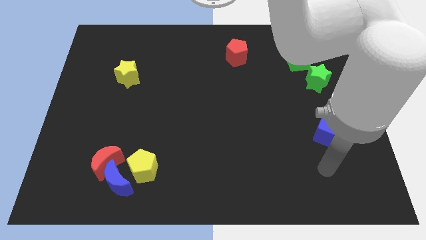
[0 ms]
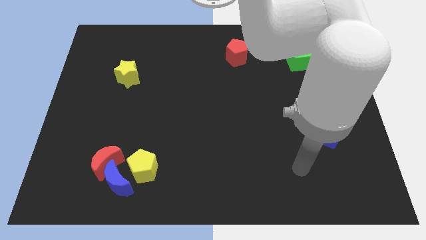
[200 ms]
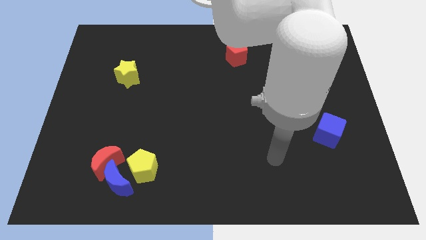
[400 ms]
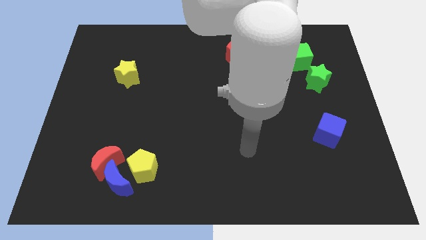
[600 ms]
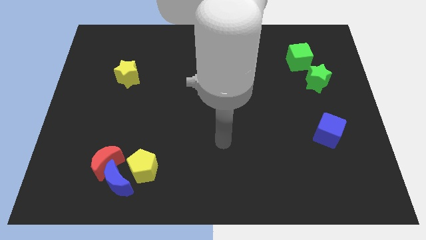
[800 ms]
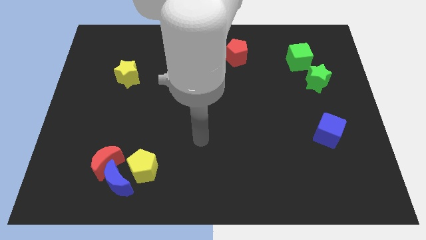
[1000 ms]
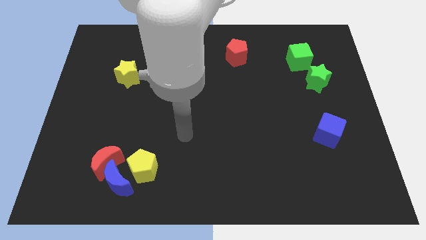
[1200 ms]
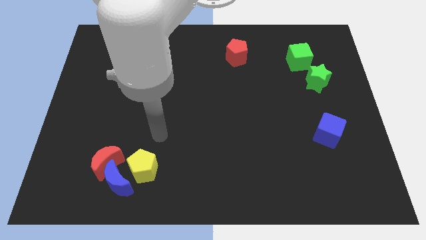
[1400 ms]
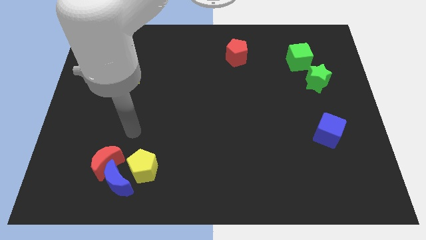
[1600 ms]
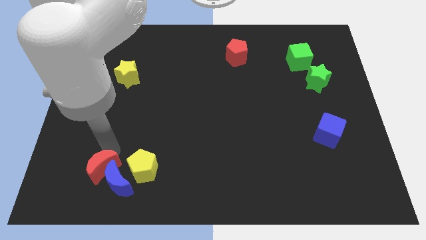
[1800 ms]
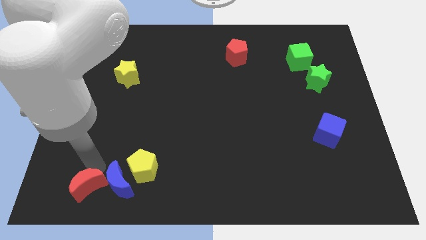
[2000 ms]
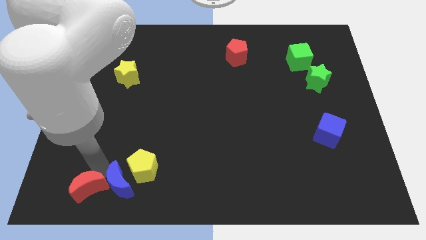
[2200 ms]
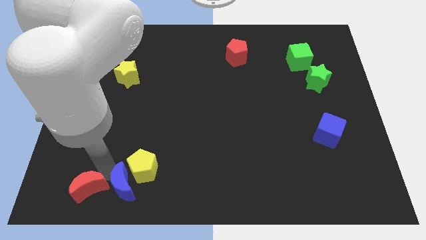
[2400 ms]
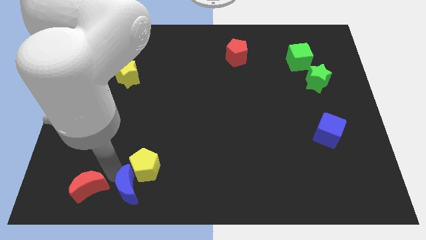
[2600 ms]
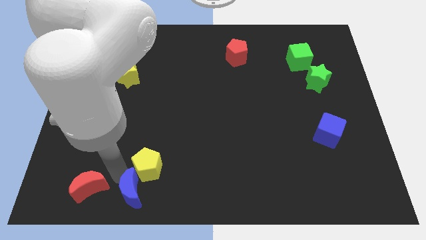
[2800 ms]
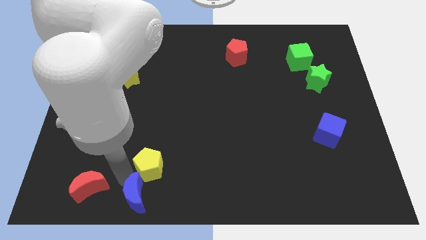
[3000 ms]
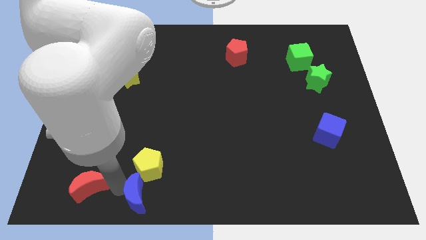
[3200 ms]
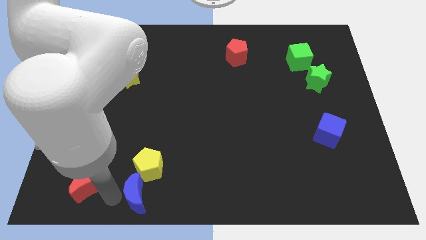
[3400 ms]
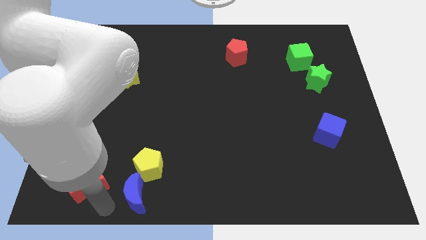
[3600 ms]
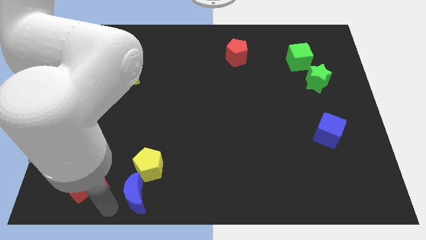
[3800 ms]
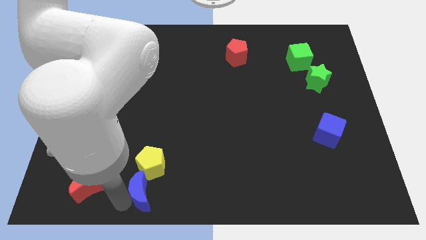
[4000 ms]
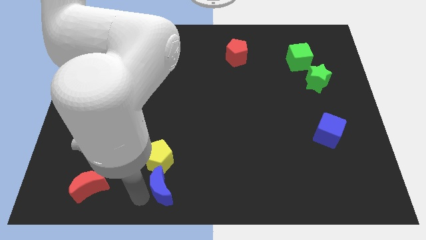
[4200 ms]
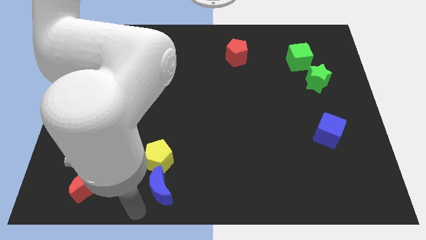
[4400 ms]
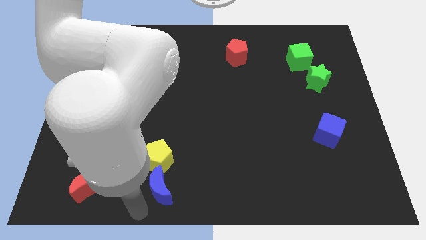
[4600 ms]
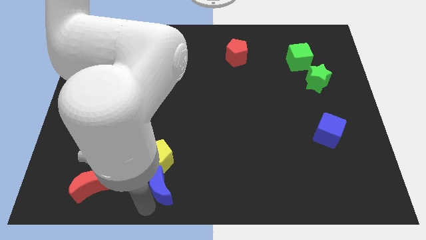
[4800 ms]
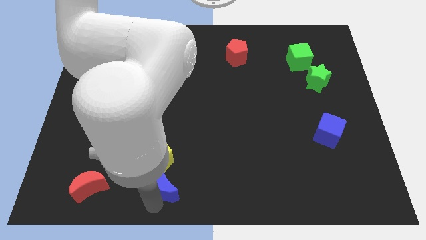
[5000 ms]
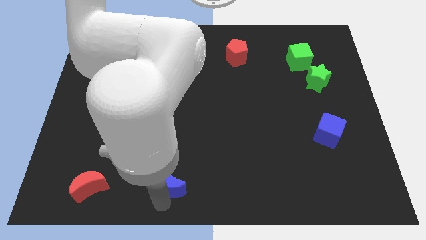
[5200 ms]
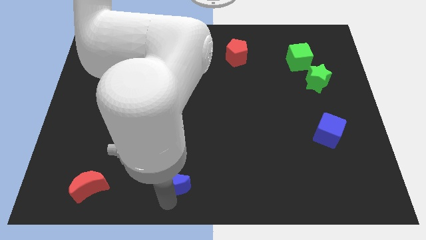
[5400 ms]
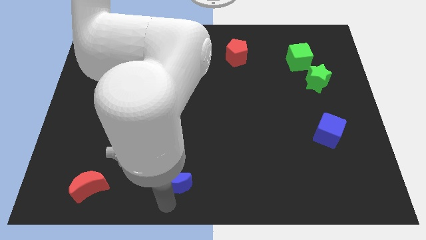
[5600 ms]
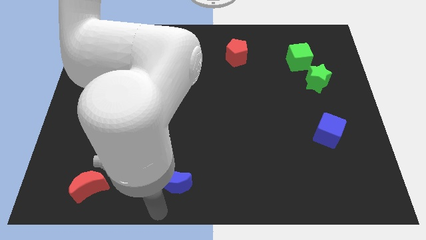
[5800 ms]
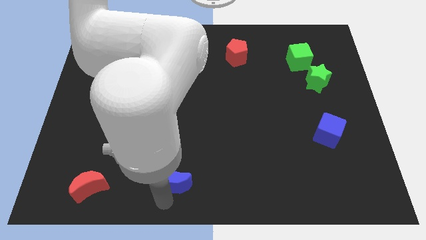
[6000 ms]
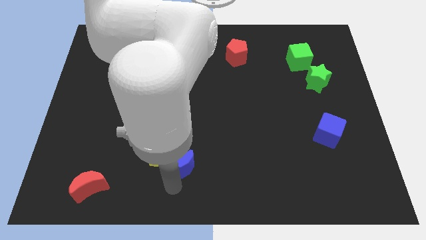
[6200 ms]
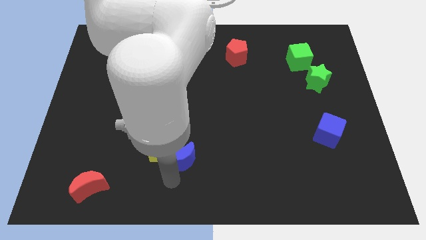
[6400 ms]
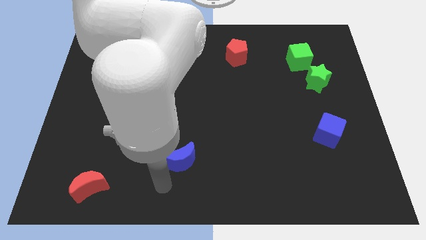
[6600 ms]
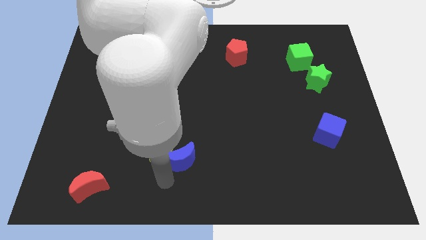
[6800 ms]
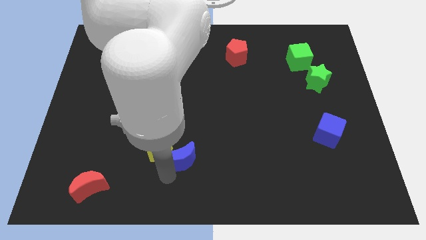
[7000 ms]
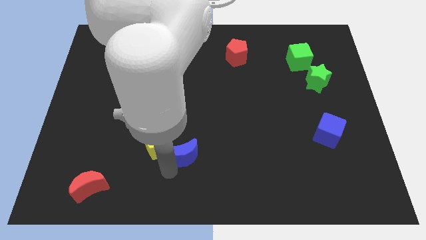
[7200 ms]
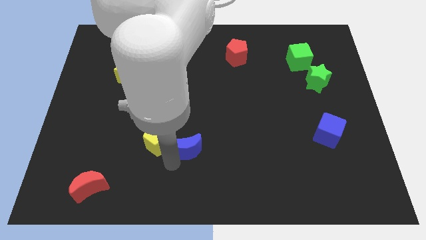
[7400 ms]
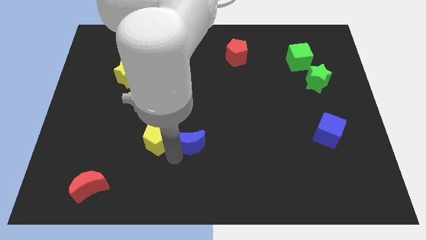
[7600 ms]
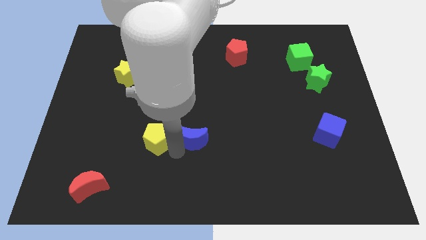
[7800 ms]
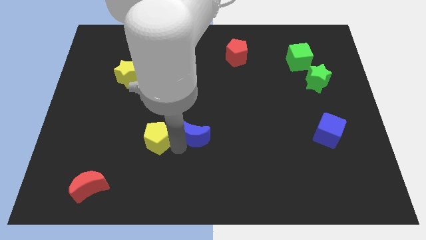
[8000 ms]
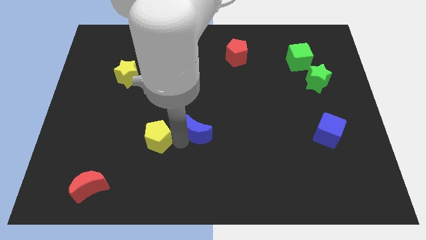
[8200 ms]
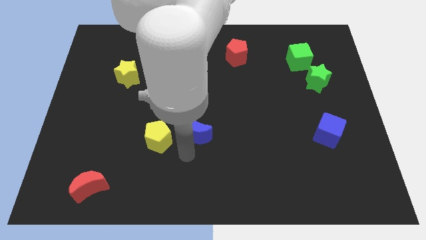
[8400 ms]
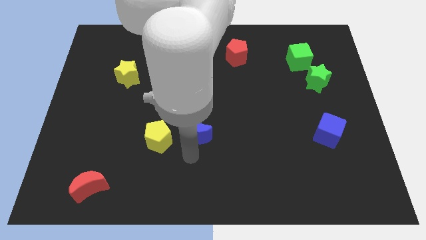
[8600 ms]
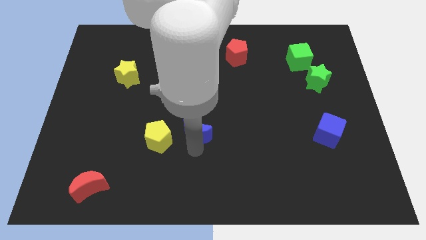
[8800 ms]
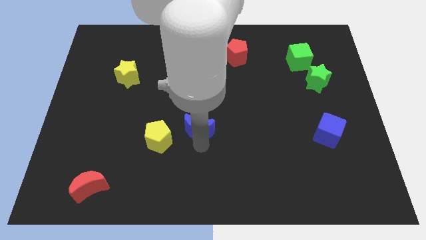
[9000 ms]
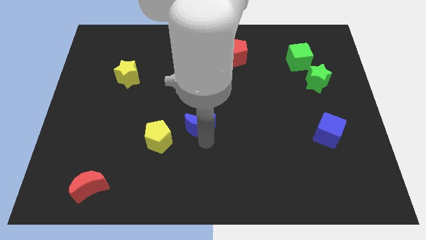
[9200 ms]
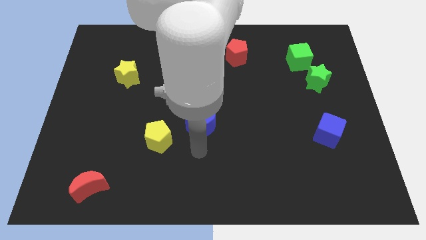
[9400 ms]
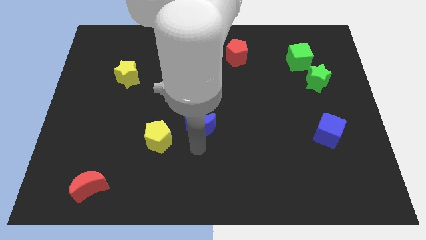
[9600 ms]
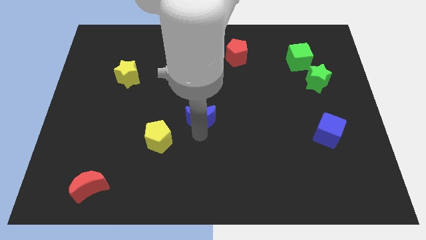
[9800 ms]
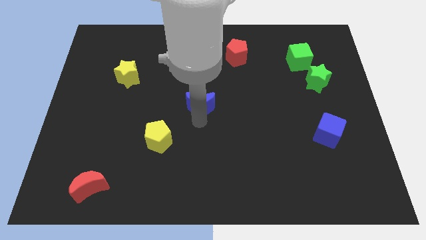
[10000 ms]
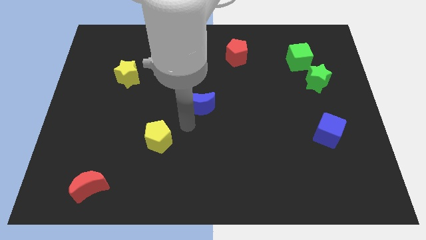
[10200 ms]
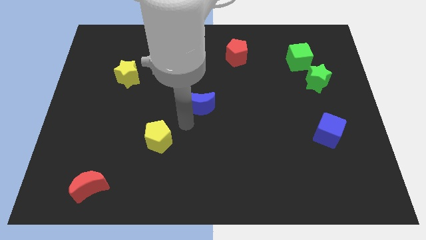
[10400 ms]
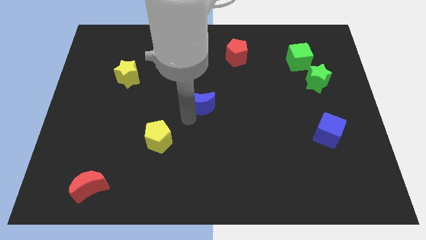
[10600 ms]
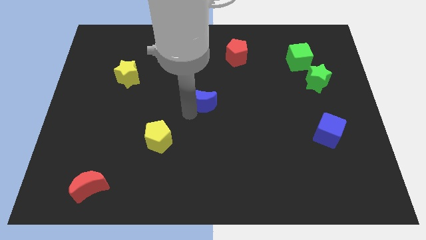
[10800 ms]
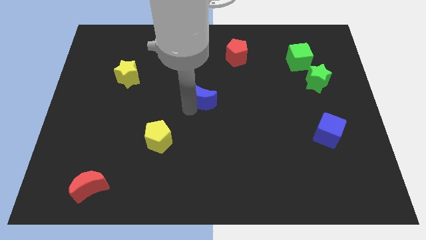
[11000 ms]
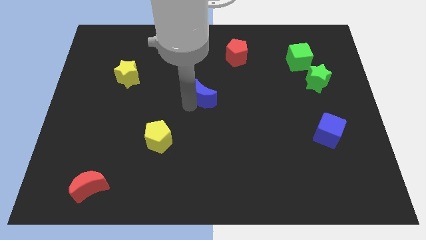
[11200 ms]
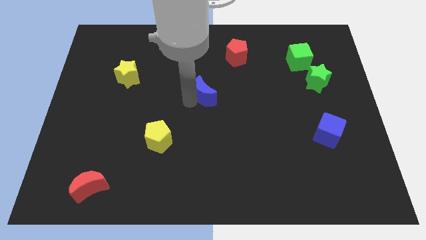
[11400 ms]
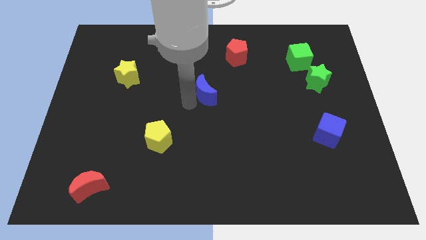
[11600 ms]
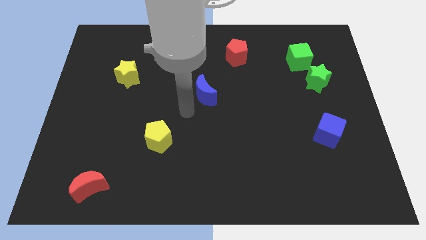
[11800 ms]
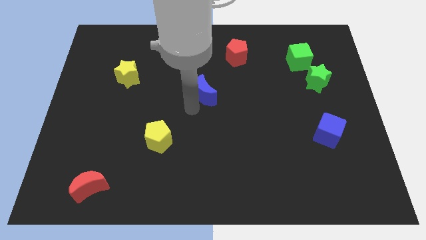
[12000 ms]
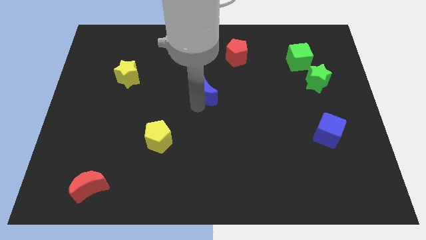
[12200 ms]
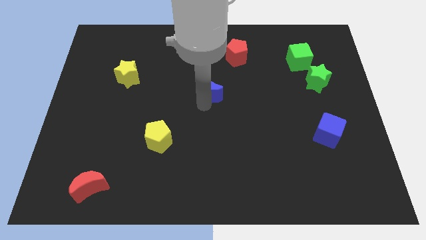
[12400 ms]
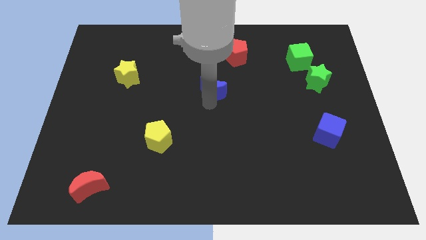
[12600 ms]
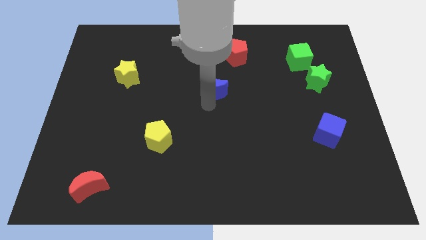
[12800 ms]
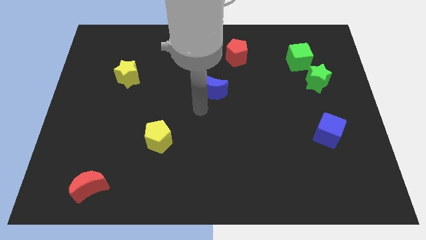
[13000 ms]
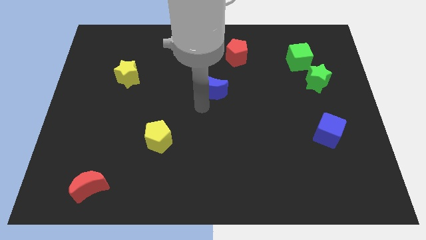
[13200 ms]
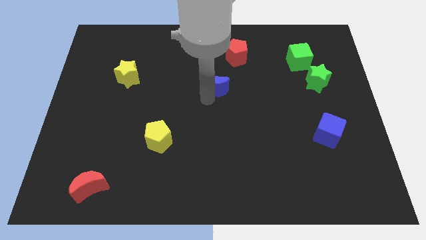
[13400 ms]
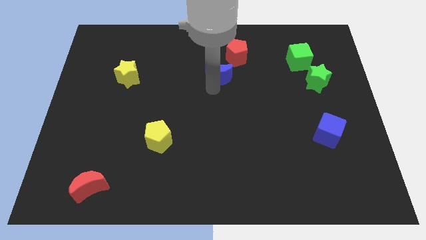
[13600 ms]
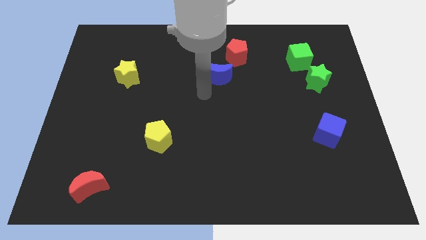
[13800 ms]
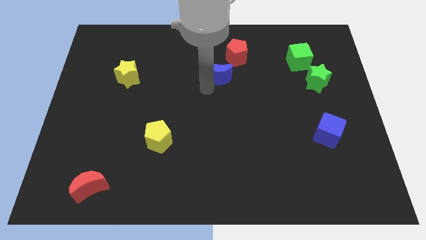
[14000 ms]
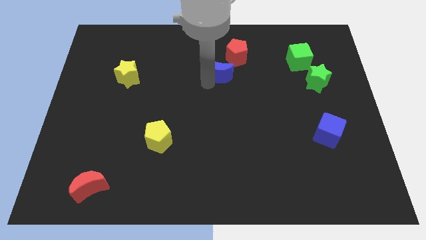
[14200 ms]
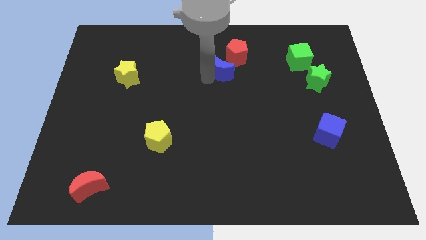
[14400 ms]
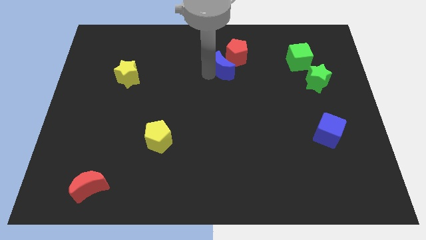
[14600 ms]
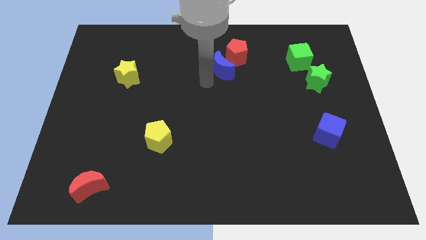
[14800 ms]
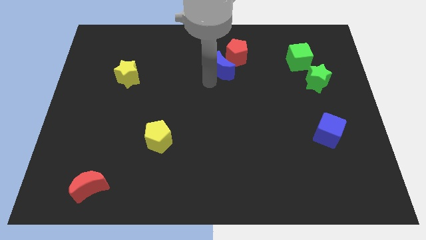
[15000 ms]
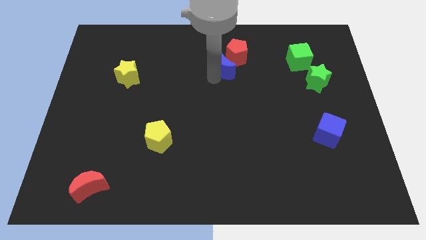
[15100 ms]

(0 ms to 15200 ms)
push the blue moon next to the red pentagon
